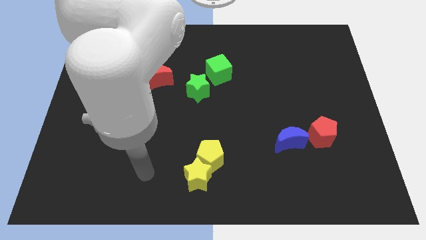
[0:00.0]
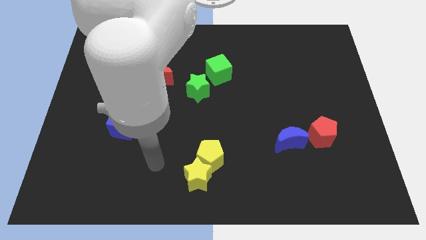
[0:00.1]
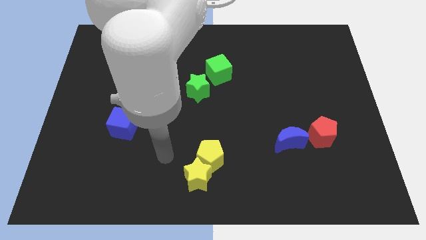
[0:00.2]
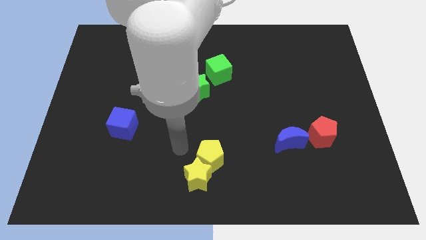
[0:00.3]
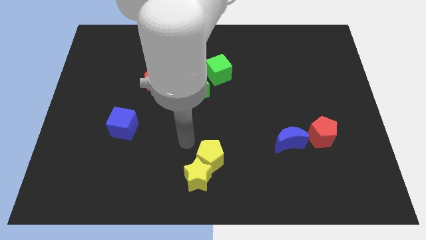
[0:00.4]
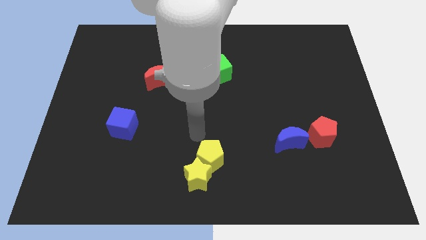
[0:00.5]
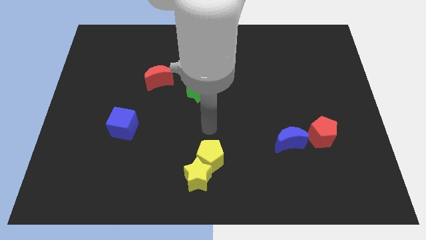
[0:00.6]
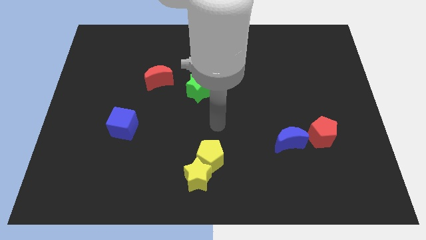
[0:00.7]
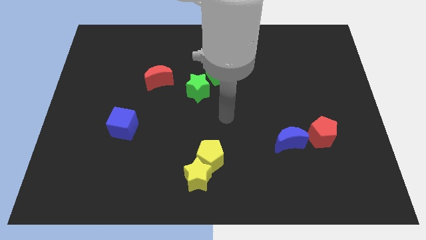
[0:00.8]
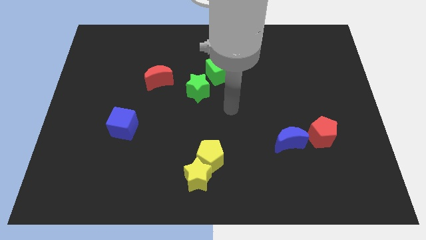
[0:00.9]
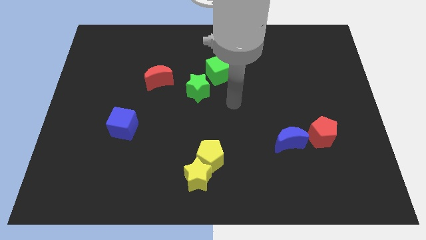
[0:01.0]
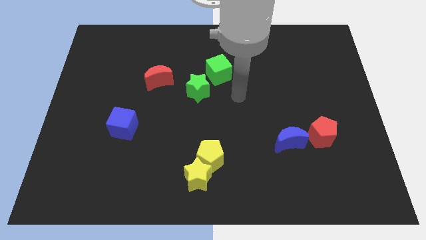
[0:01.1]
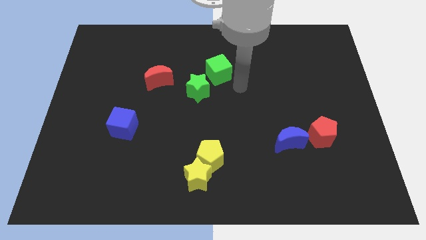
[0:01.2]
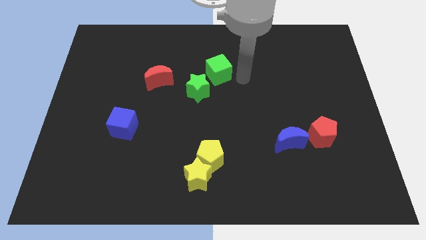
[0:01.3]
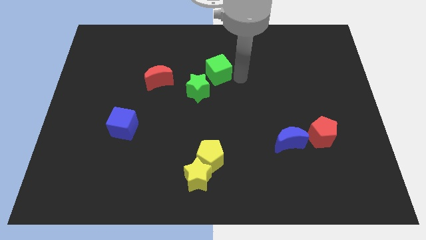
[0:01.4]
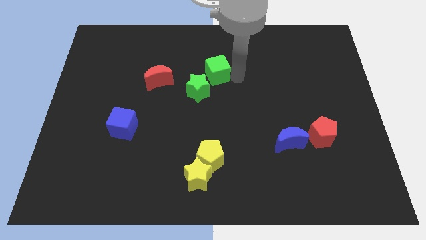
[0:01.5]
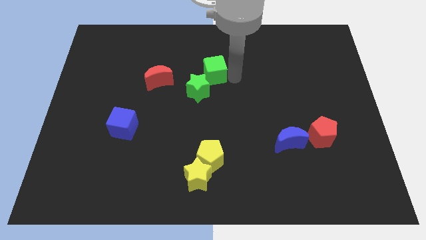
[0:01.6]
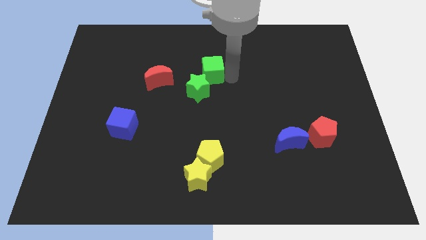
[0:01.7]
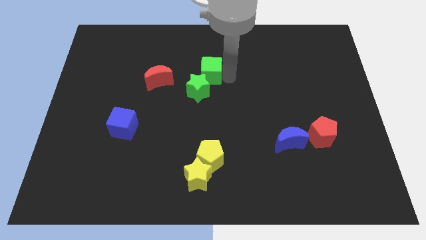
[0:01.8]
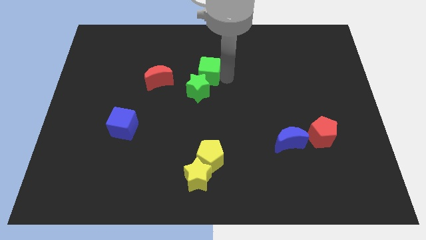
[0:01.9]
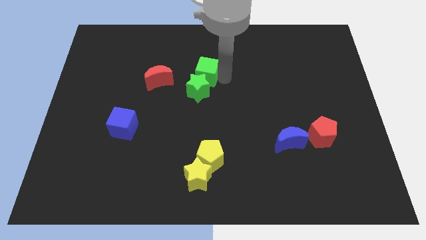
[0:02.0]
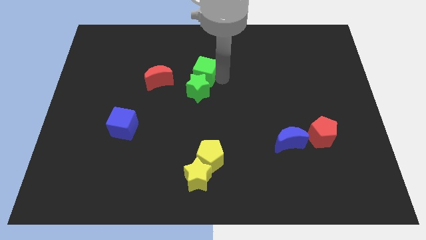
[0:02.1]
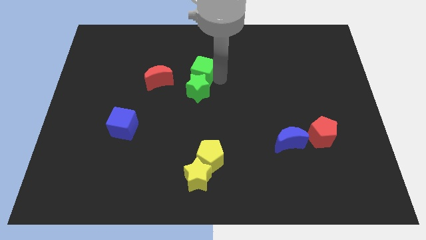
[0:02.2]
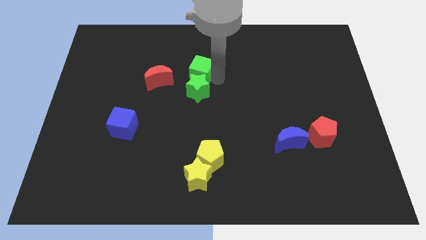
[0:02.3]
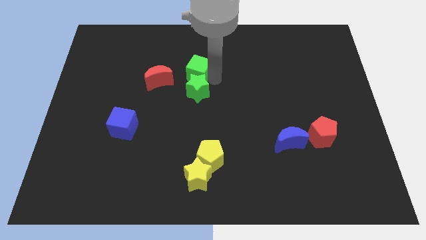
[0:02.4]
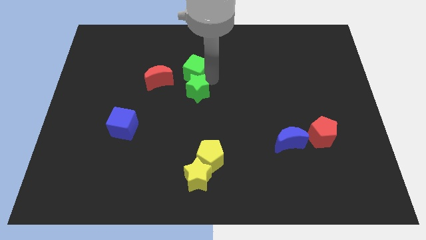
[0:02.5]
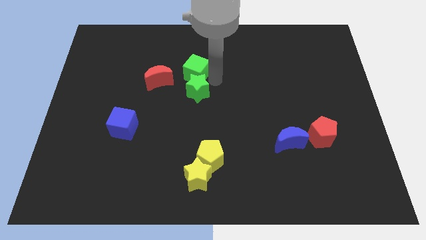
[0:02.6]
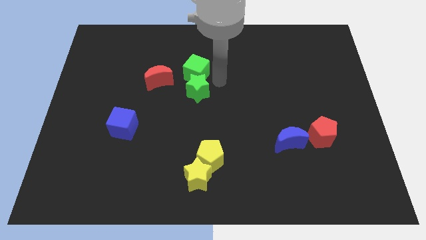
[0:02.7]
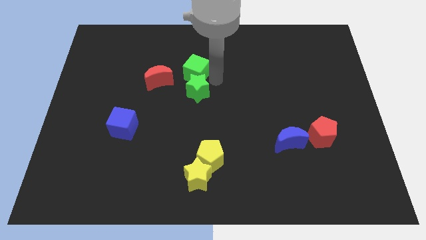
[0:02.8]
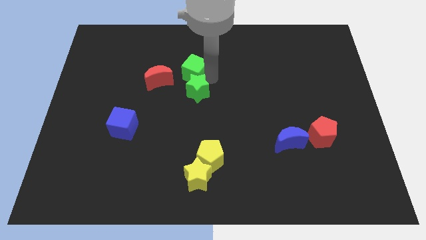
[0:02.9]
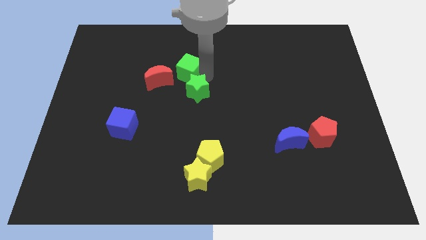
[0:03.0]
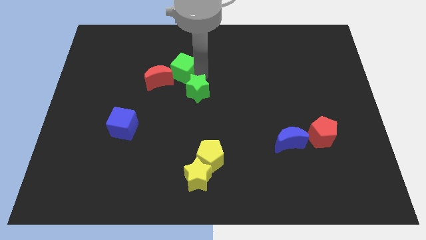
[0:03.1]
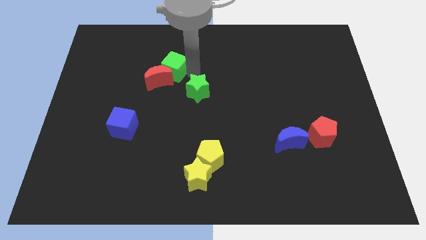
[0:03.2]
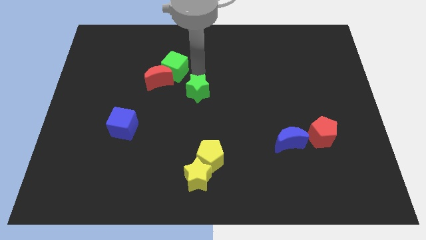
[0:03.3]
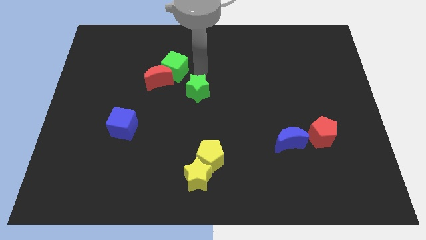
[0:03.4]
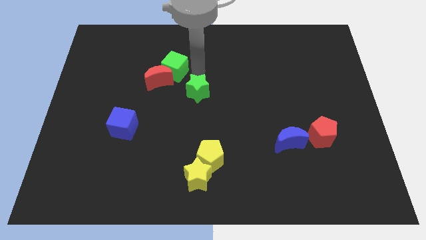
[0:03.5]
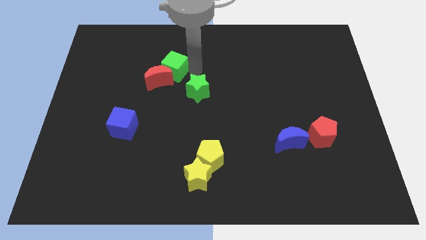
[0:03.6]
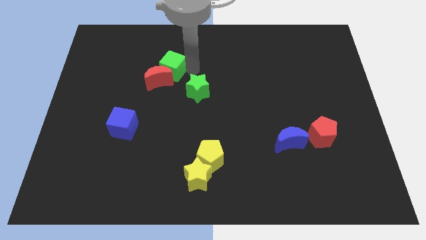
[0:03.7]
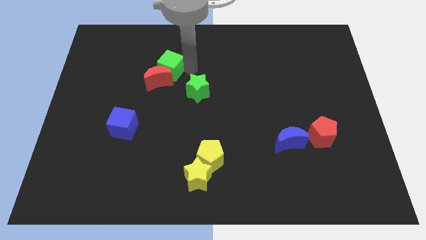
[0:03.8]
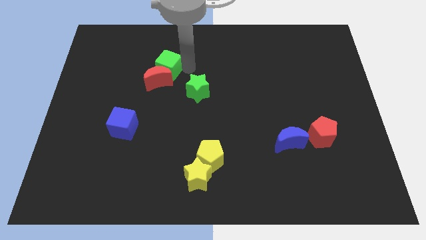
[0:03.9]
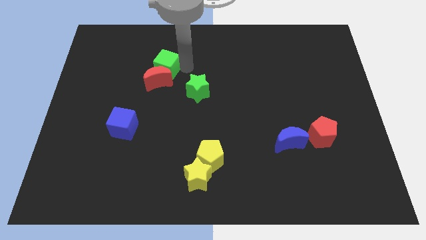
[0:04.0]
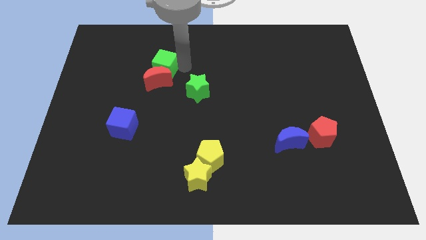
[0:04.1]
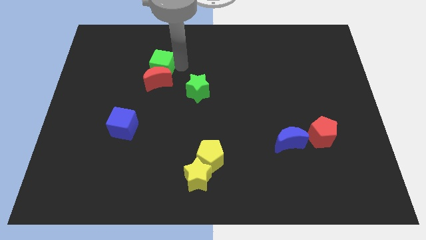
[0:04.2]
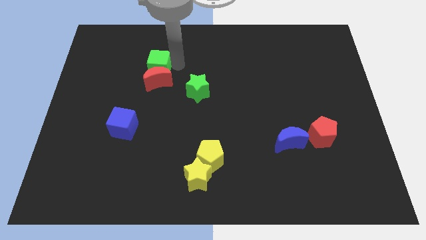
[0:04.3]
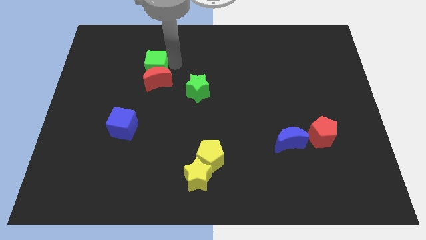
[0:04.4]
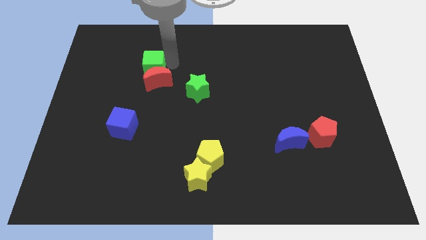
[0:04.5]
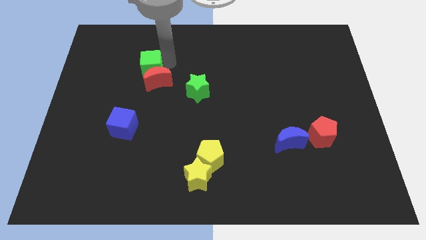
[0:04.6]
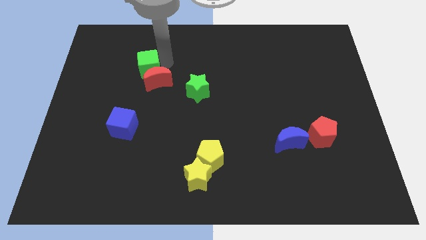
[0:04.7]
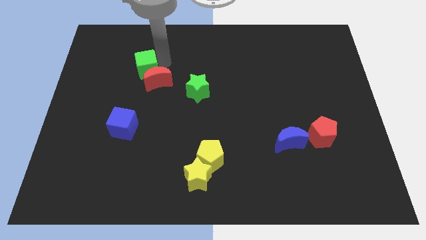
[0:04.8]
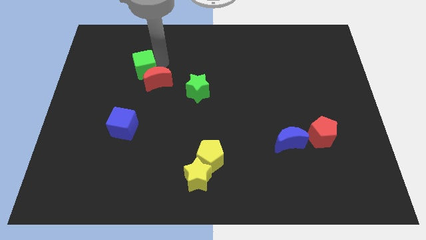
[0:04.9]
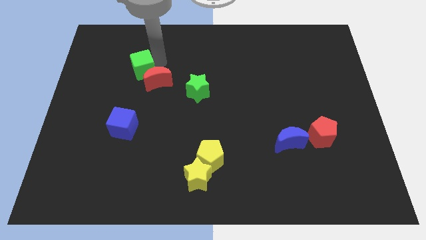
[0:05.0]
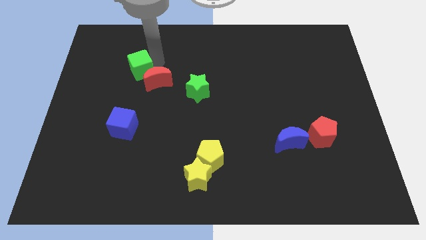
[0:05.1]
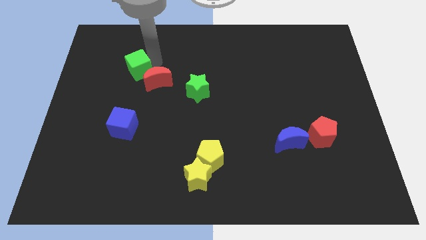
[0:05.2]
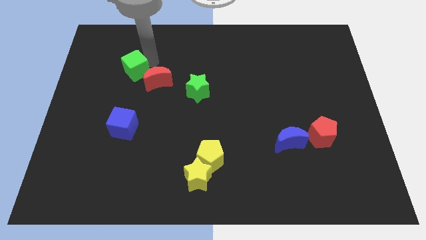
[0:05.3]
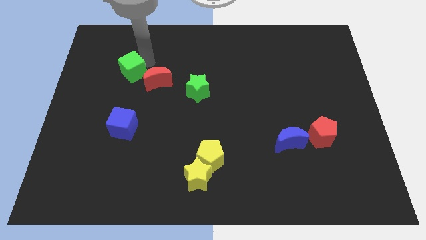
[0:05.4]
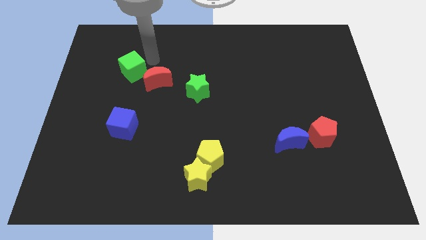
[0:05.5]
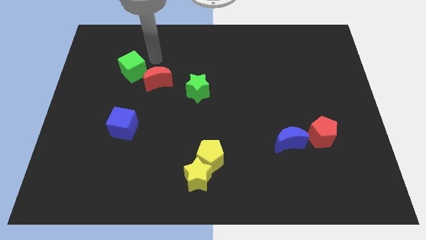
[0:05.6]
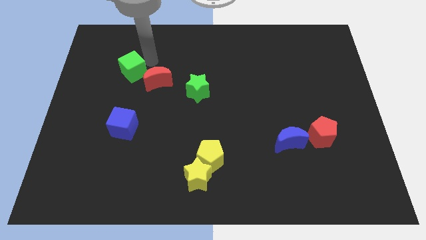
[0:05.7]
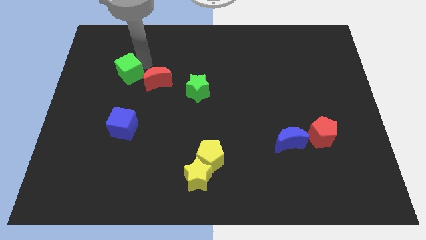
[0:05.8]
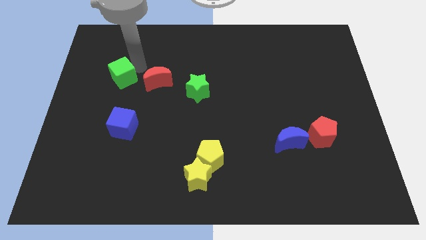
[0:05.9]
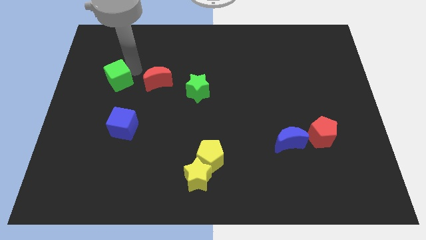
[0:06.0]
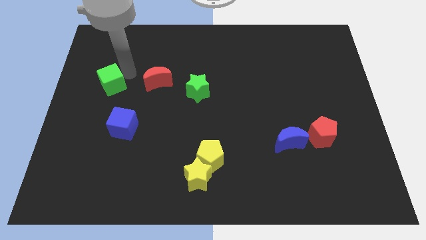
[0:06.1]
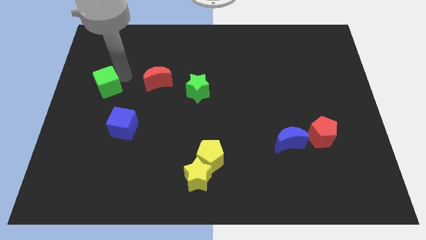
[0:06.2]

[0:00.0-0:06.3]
move the green cube to the left side

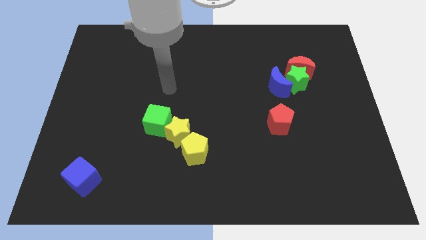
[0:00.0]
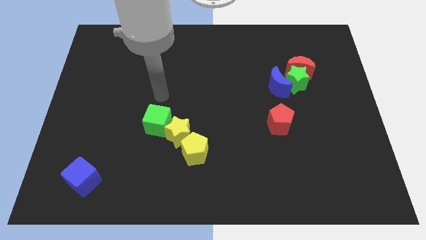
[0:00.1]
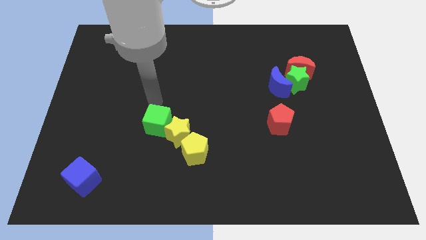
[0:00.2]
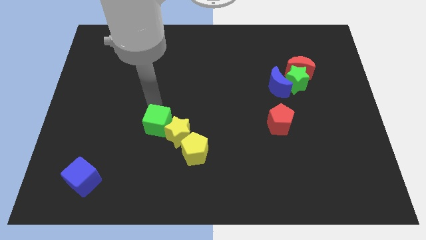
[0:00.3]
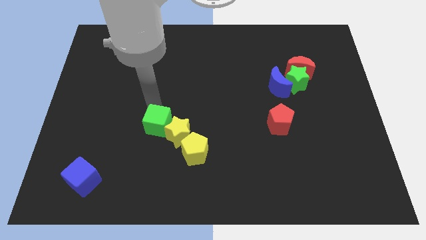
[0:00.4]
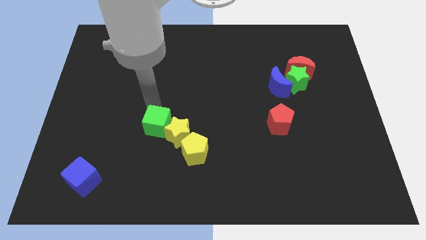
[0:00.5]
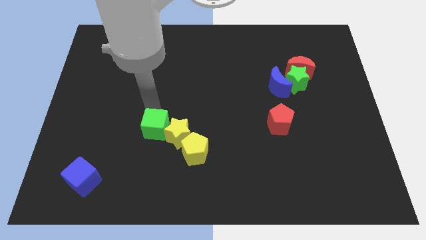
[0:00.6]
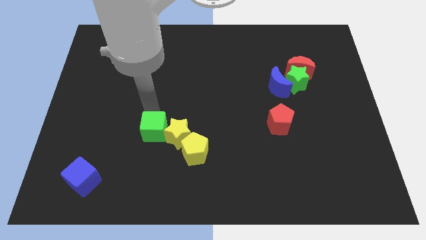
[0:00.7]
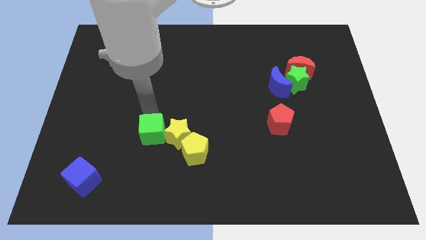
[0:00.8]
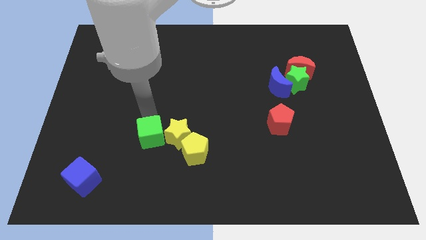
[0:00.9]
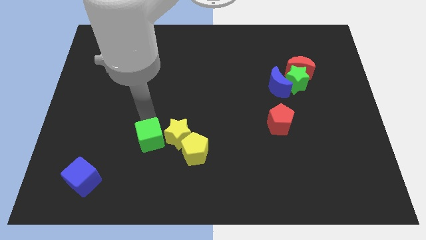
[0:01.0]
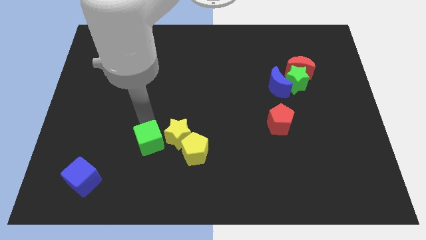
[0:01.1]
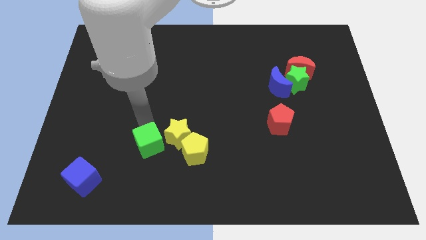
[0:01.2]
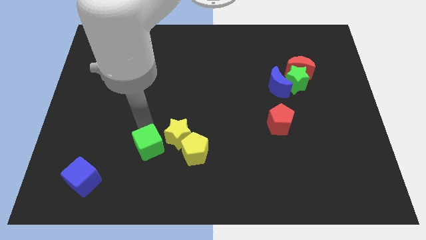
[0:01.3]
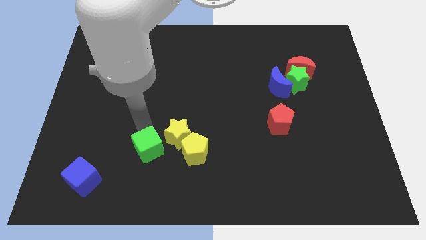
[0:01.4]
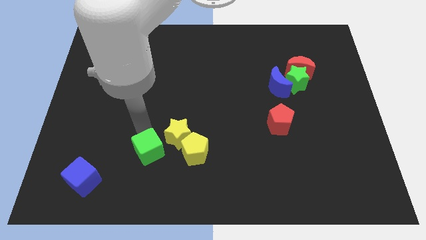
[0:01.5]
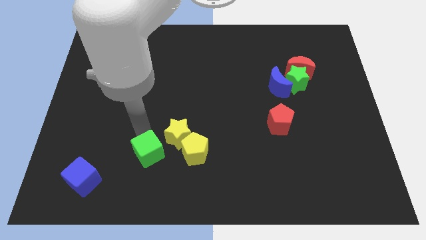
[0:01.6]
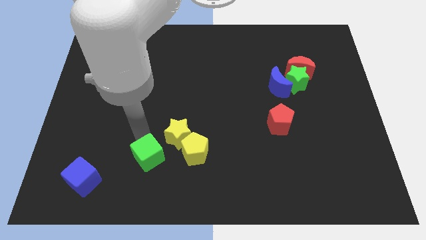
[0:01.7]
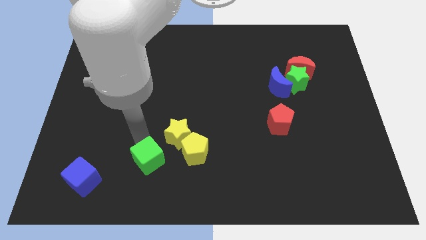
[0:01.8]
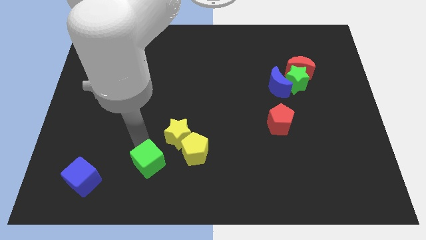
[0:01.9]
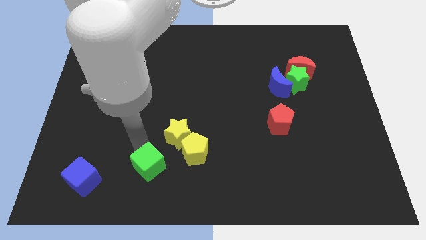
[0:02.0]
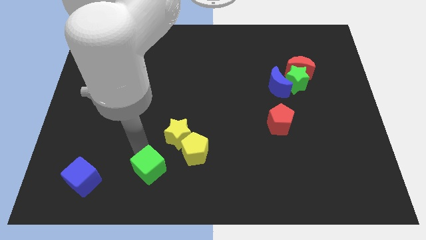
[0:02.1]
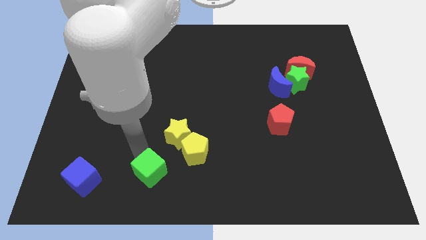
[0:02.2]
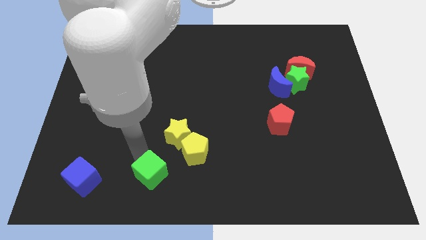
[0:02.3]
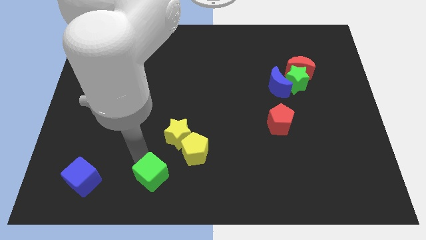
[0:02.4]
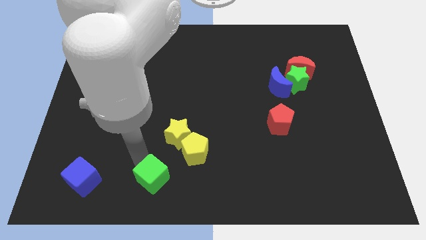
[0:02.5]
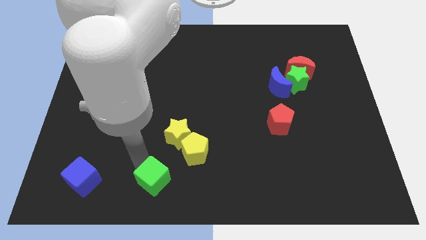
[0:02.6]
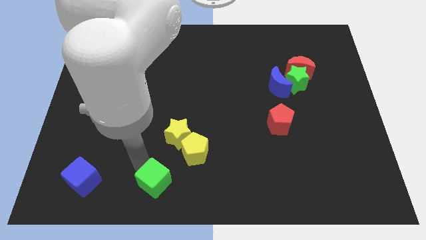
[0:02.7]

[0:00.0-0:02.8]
slide the green cube to the bottom side
